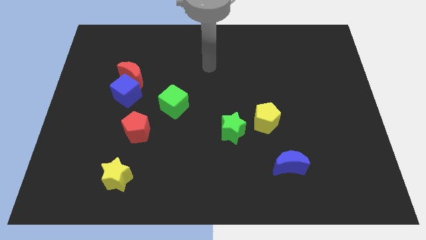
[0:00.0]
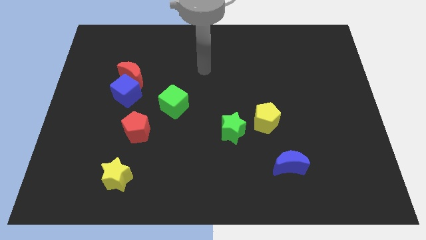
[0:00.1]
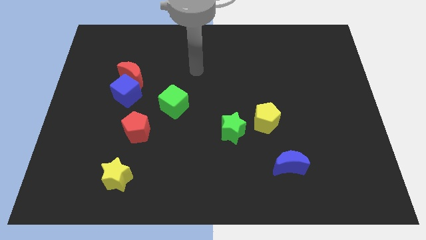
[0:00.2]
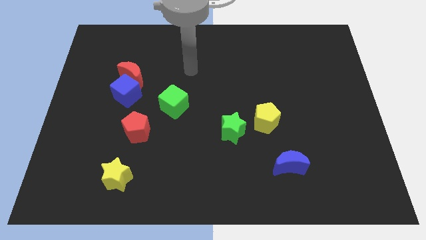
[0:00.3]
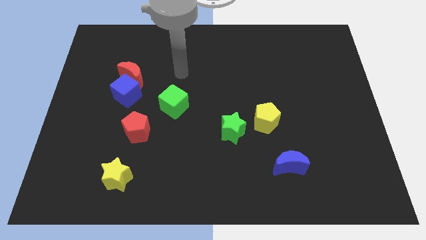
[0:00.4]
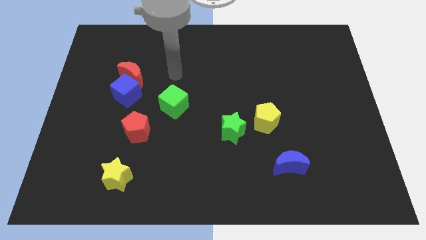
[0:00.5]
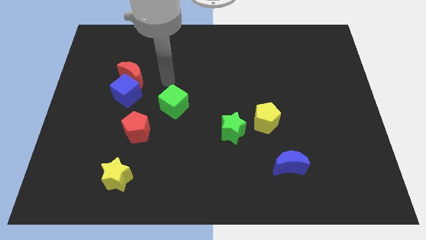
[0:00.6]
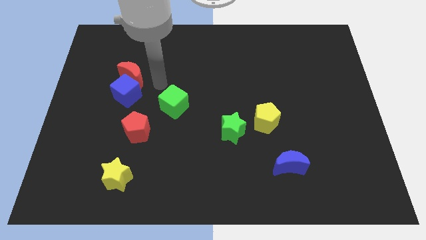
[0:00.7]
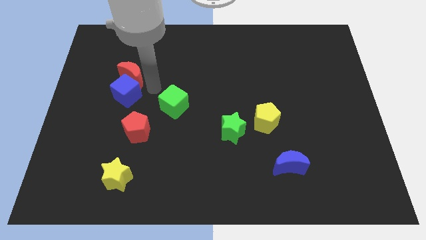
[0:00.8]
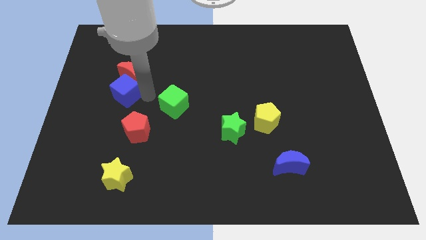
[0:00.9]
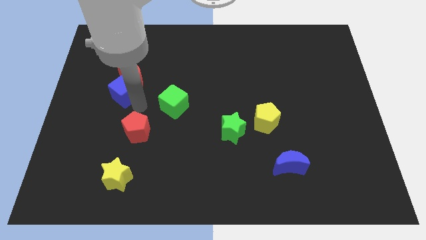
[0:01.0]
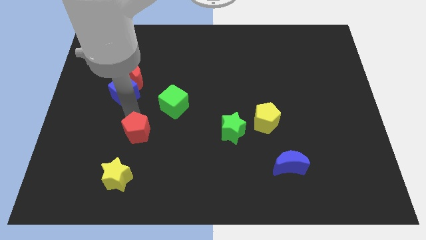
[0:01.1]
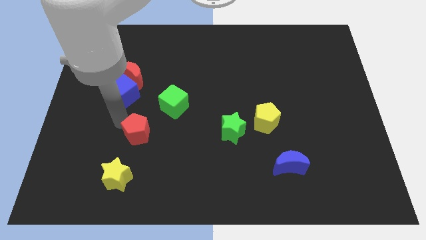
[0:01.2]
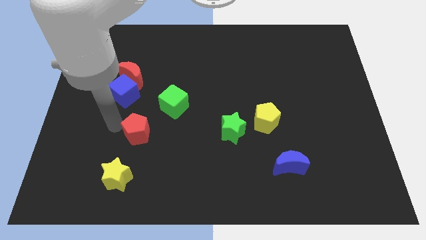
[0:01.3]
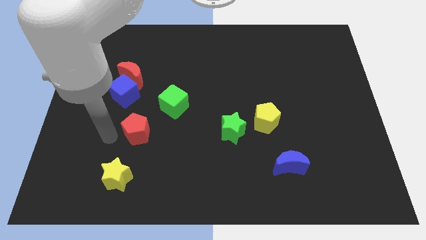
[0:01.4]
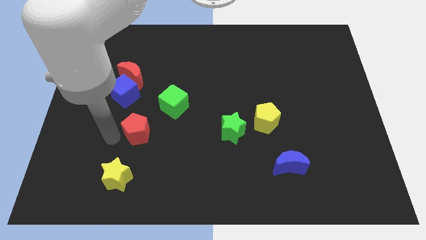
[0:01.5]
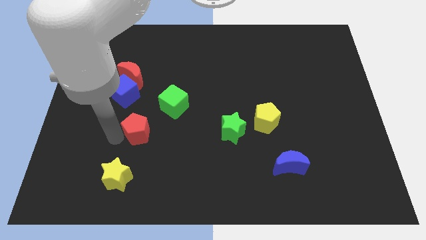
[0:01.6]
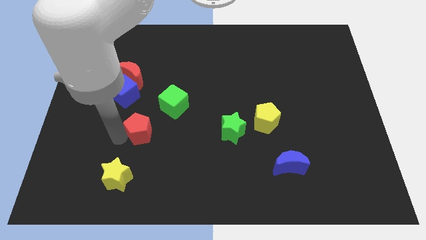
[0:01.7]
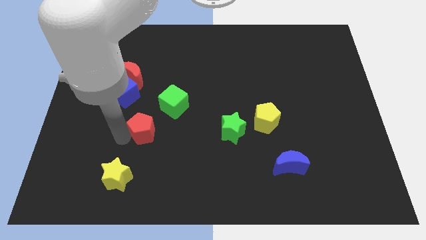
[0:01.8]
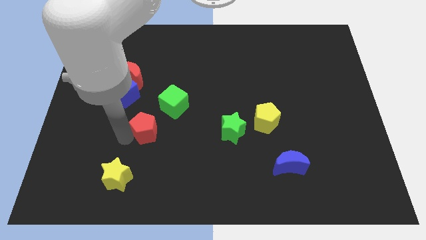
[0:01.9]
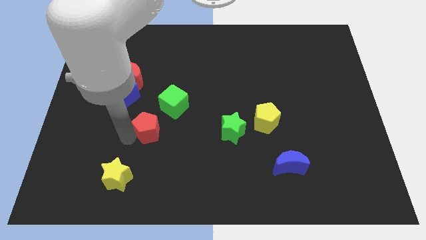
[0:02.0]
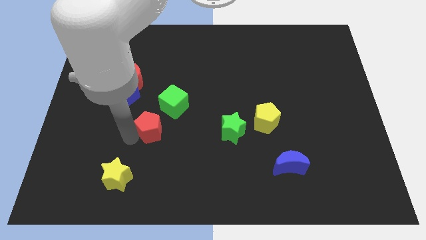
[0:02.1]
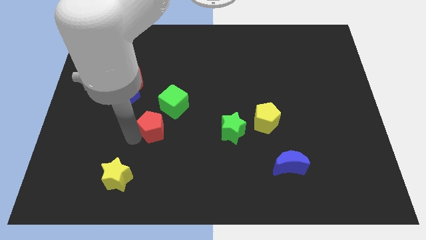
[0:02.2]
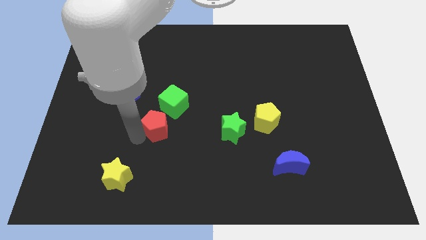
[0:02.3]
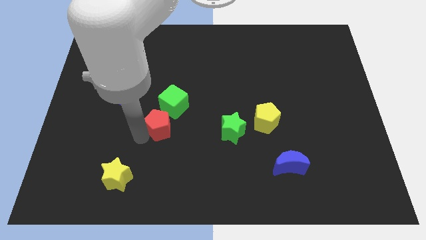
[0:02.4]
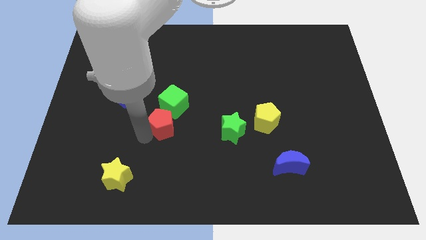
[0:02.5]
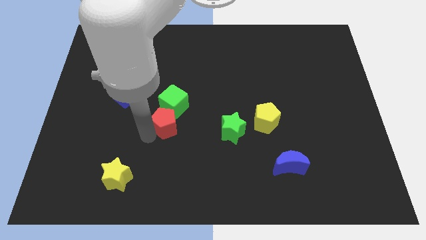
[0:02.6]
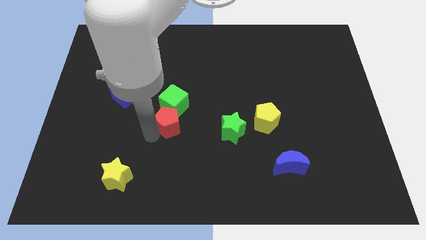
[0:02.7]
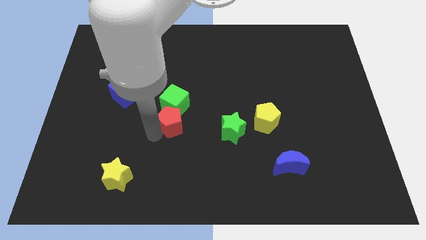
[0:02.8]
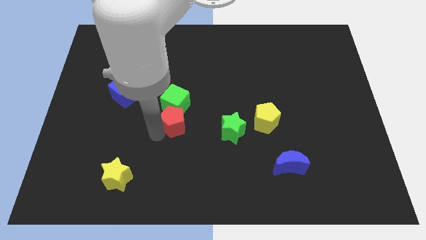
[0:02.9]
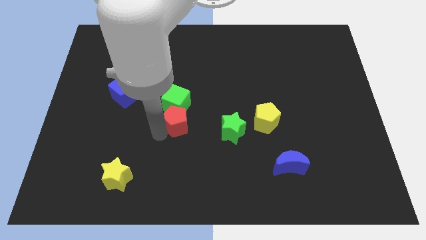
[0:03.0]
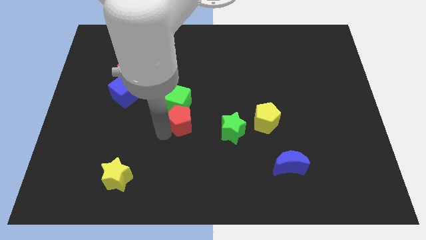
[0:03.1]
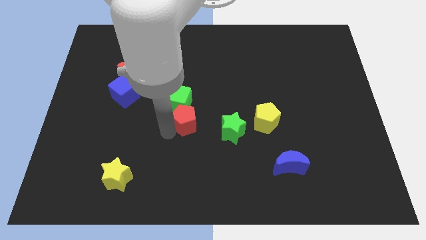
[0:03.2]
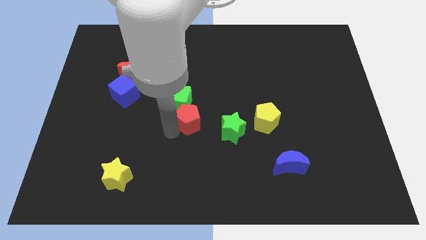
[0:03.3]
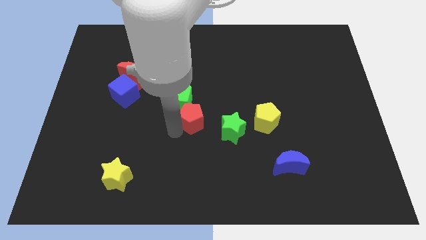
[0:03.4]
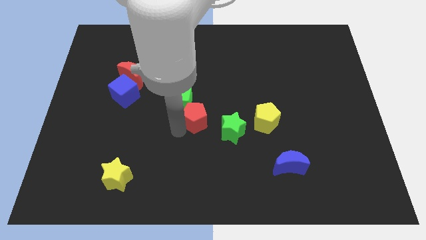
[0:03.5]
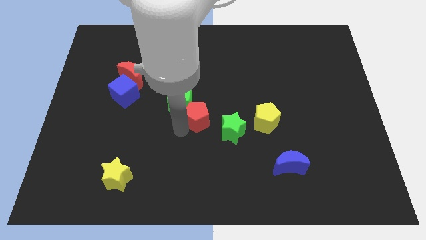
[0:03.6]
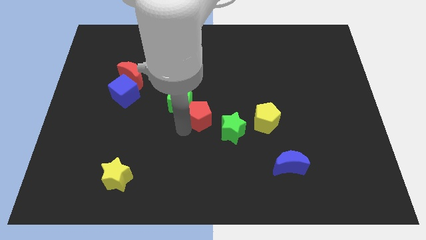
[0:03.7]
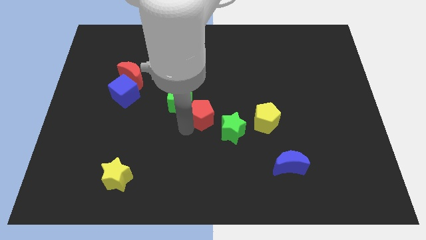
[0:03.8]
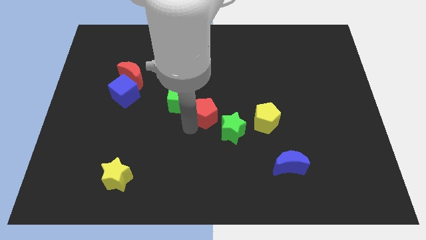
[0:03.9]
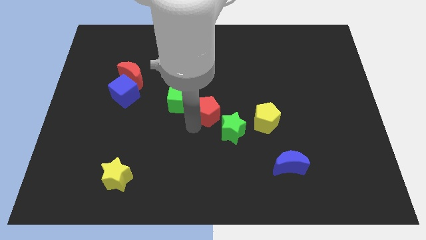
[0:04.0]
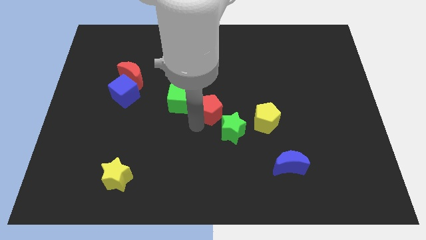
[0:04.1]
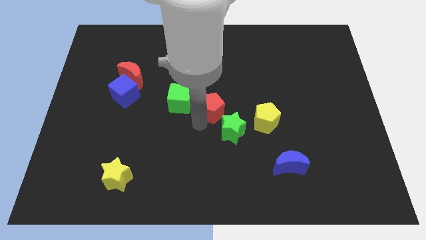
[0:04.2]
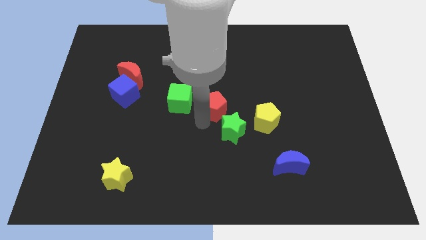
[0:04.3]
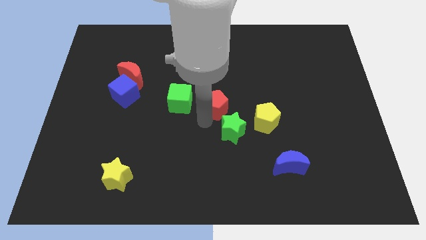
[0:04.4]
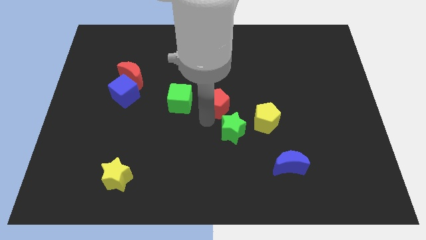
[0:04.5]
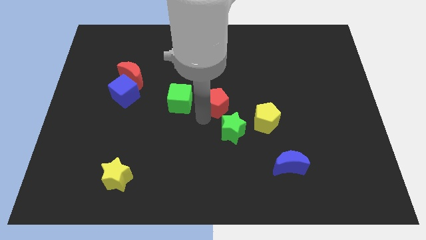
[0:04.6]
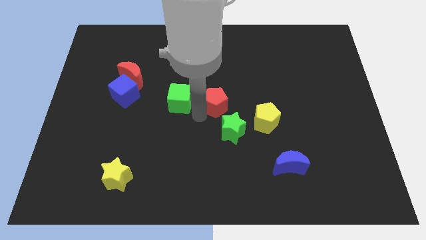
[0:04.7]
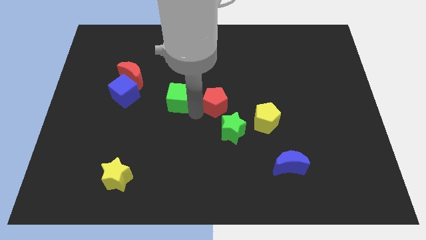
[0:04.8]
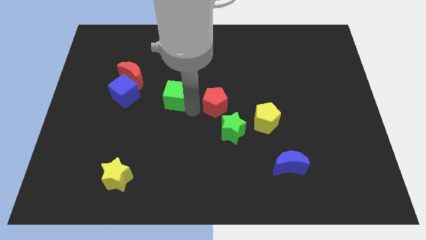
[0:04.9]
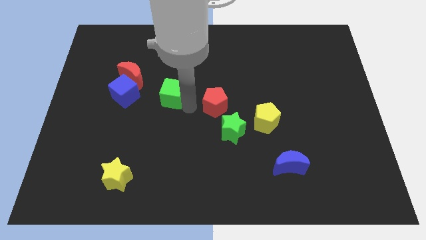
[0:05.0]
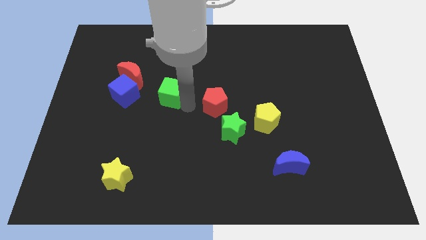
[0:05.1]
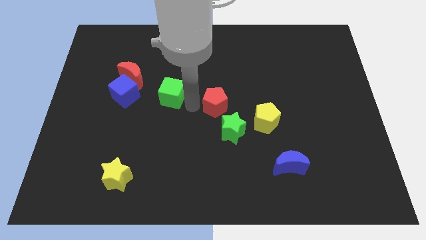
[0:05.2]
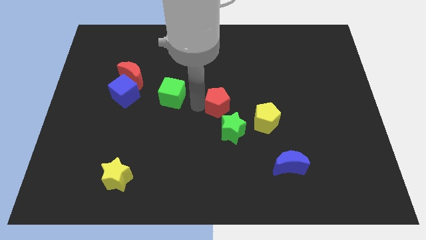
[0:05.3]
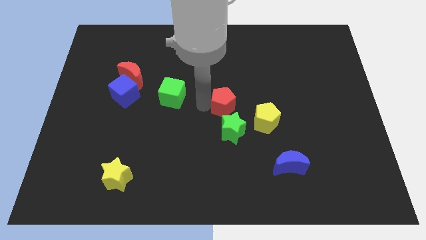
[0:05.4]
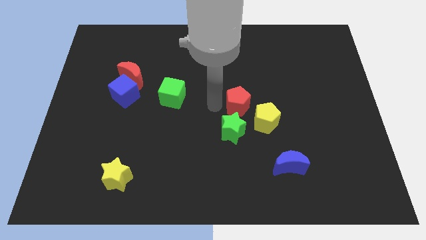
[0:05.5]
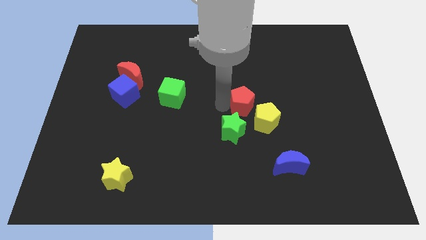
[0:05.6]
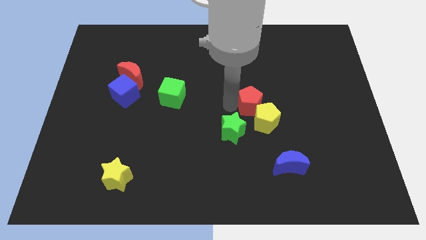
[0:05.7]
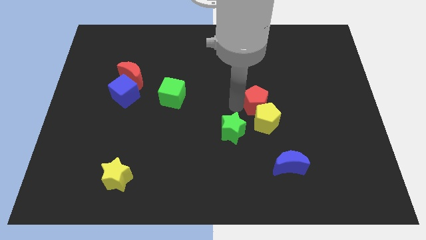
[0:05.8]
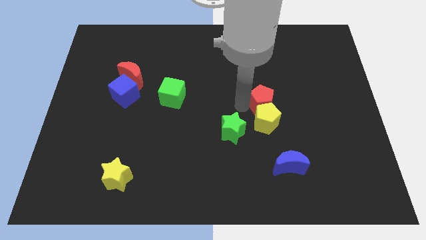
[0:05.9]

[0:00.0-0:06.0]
push the red pentagon diagonally up and to the right of the yellow pentagon
